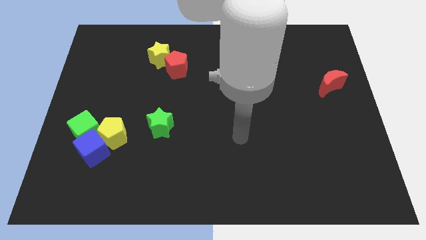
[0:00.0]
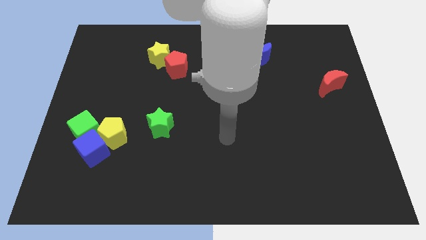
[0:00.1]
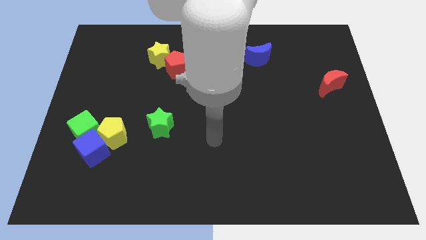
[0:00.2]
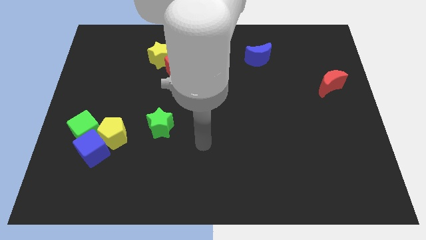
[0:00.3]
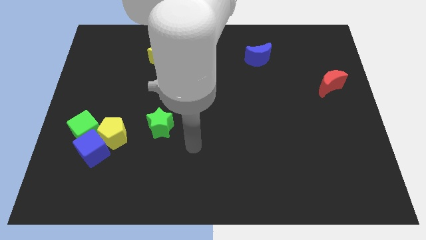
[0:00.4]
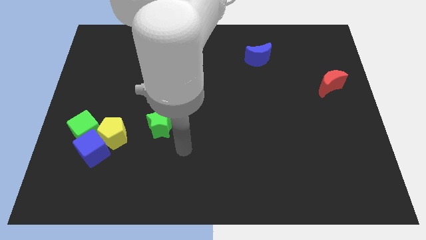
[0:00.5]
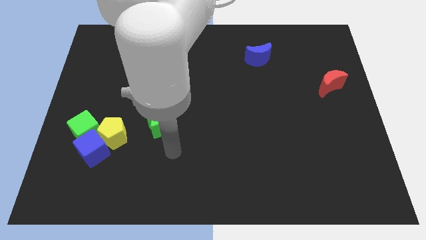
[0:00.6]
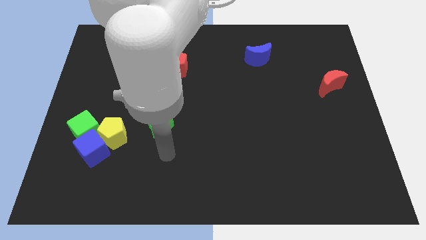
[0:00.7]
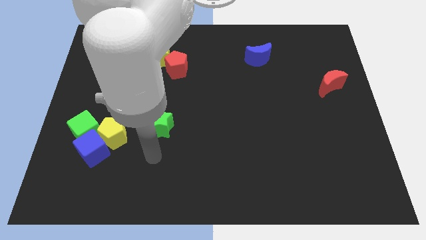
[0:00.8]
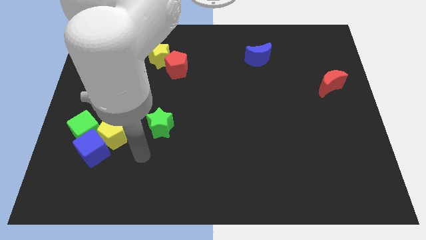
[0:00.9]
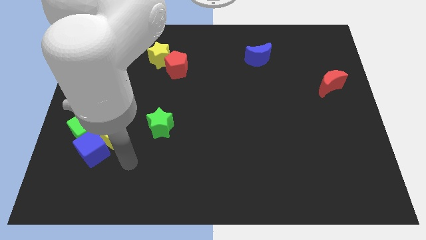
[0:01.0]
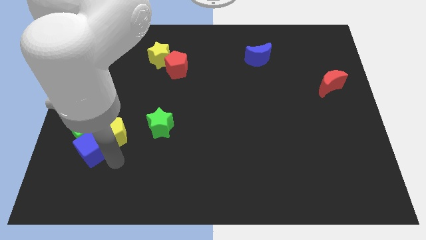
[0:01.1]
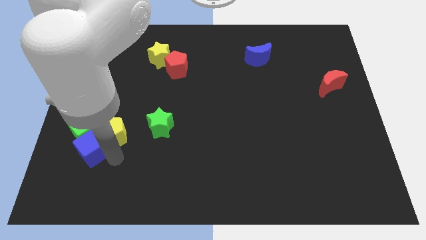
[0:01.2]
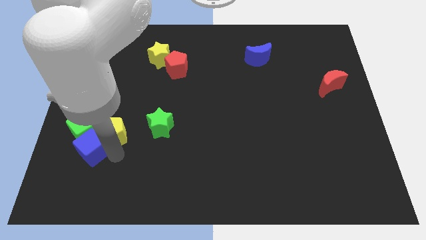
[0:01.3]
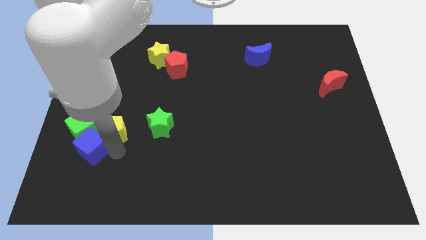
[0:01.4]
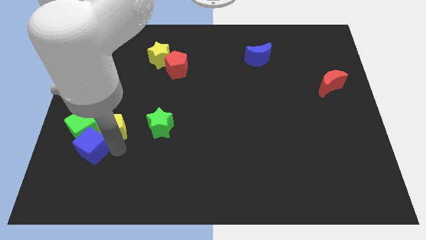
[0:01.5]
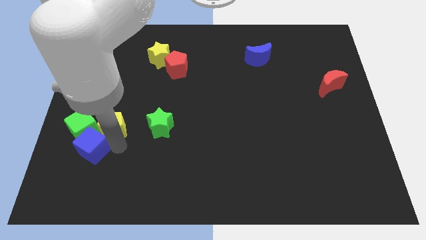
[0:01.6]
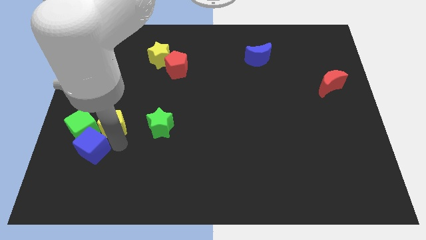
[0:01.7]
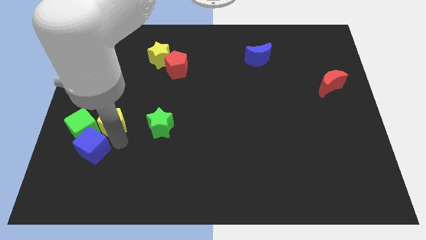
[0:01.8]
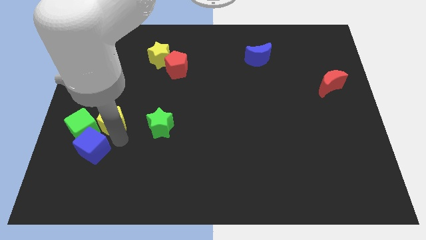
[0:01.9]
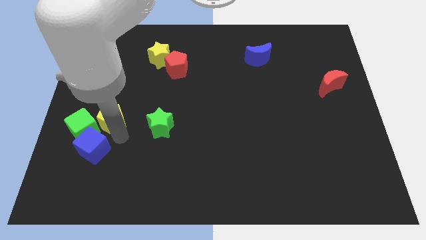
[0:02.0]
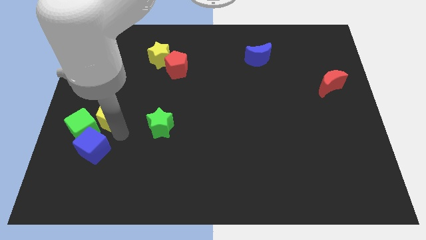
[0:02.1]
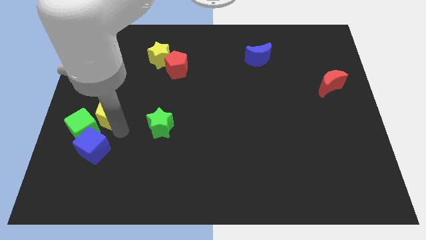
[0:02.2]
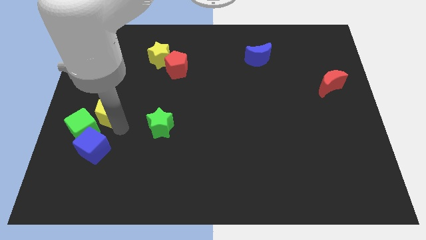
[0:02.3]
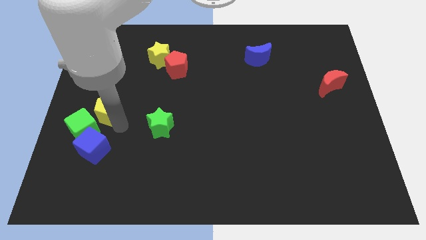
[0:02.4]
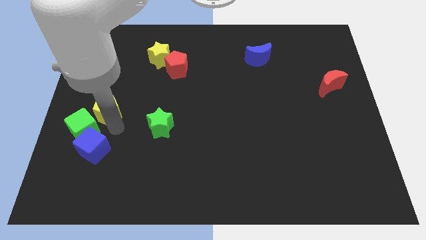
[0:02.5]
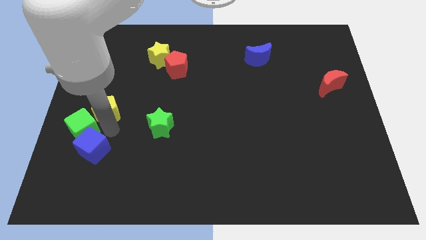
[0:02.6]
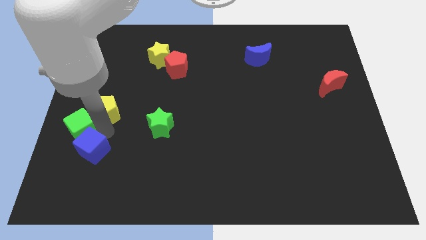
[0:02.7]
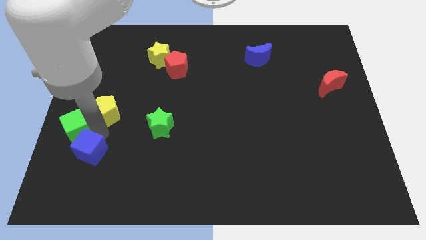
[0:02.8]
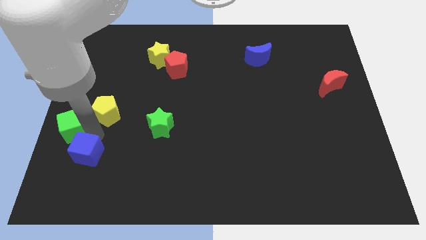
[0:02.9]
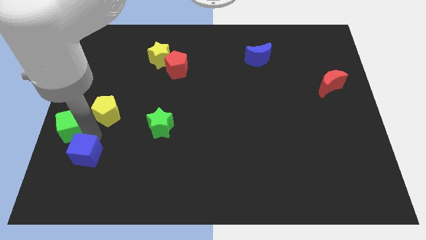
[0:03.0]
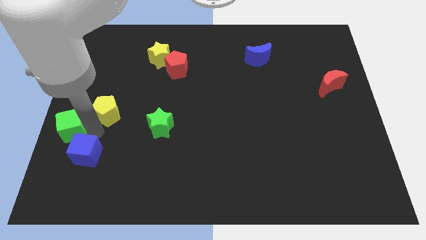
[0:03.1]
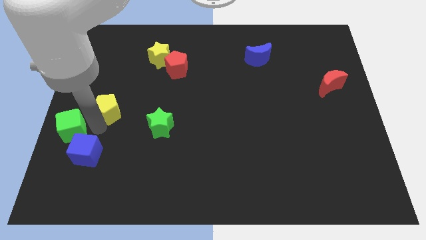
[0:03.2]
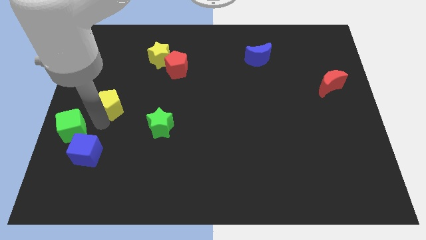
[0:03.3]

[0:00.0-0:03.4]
slide the yellow pentagon up a bit

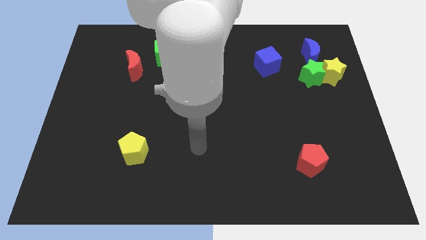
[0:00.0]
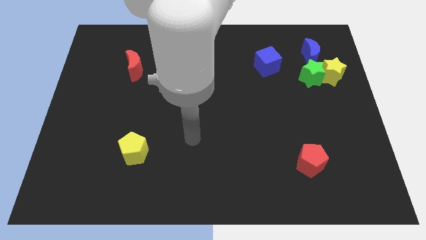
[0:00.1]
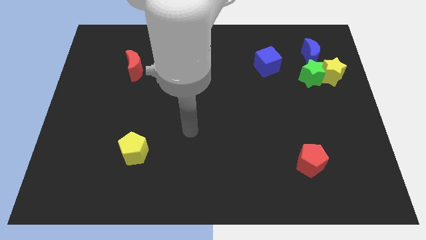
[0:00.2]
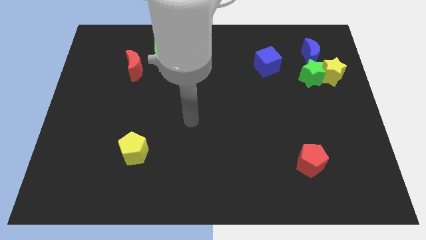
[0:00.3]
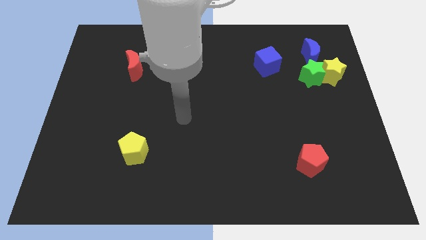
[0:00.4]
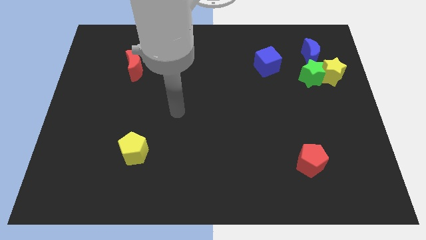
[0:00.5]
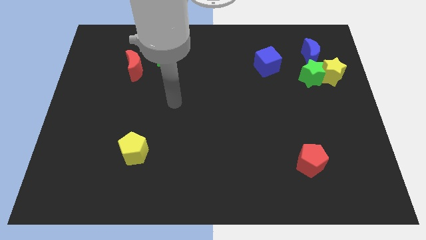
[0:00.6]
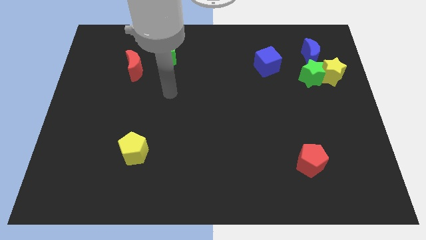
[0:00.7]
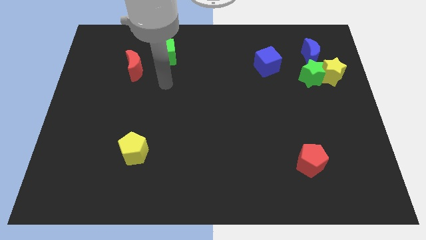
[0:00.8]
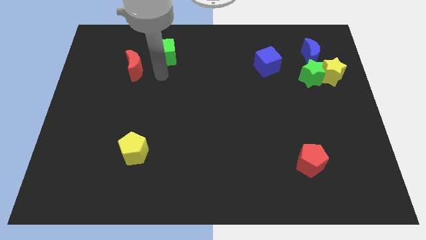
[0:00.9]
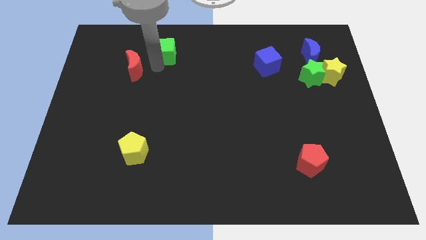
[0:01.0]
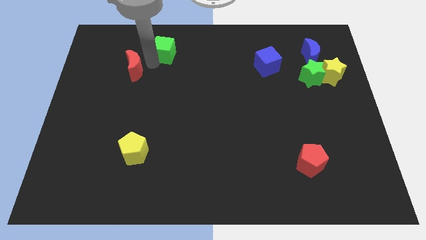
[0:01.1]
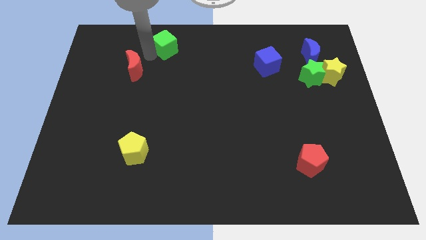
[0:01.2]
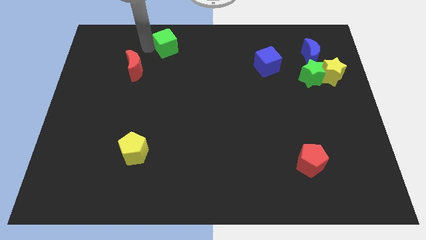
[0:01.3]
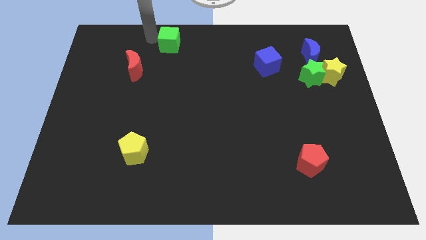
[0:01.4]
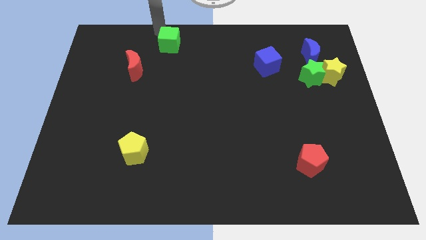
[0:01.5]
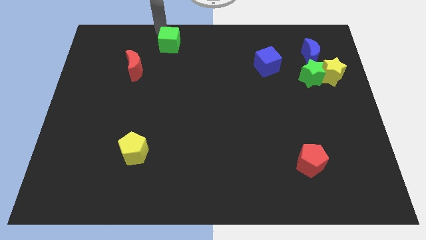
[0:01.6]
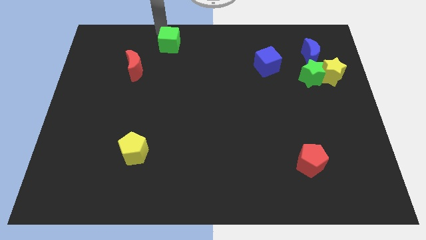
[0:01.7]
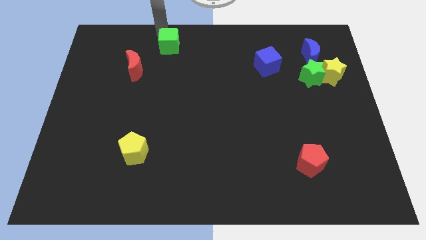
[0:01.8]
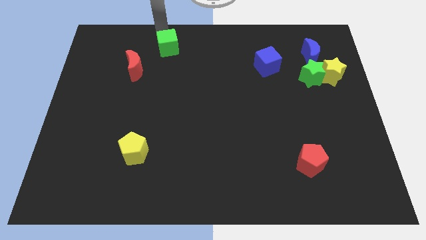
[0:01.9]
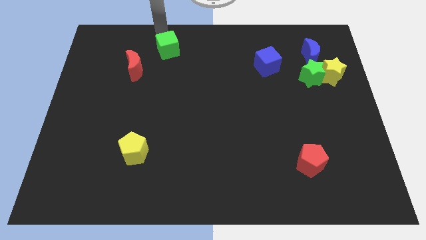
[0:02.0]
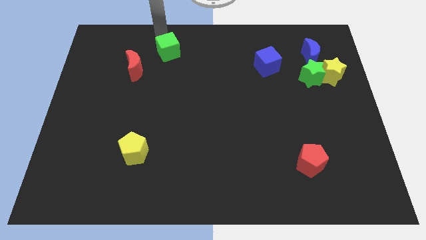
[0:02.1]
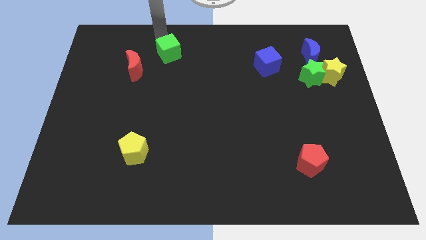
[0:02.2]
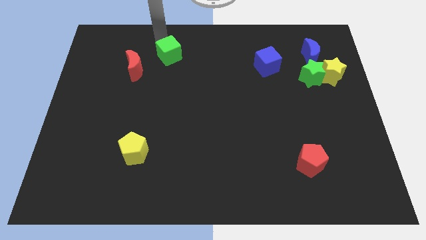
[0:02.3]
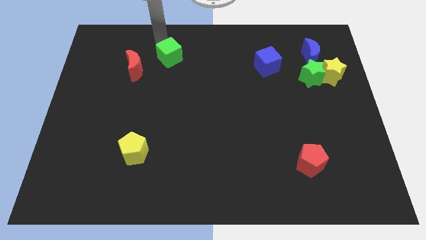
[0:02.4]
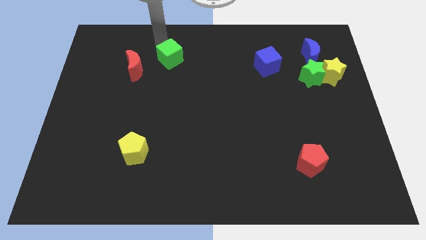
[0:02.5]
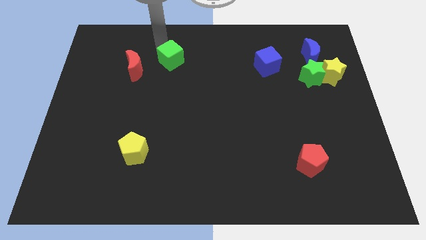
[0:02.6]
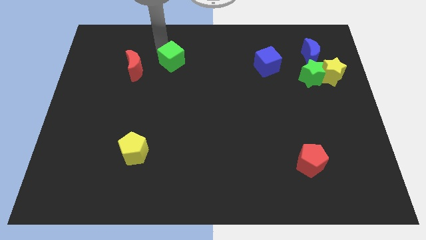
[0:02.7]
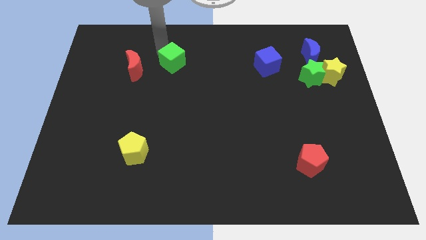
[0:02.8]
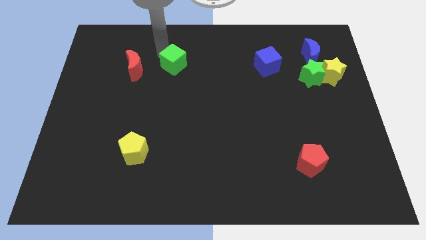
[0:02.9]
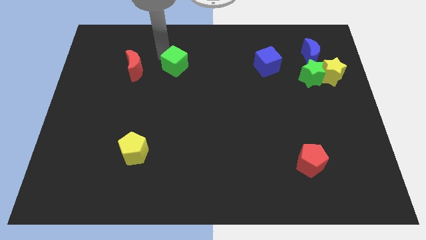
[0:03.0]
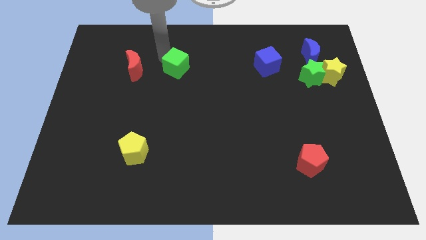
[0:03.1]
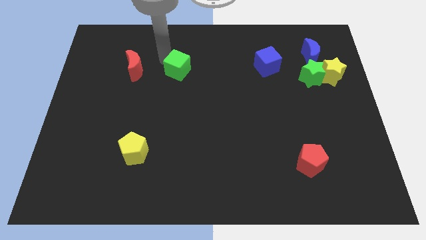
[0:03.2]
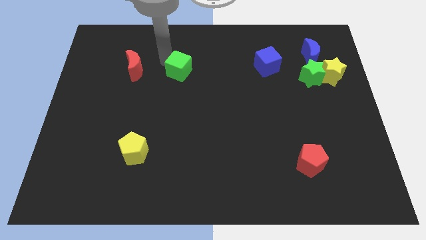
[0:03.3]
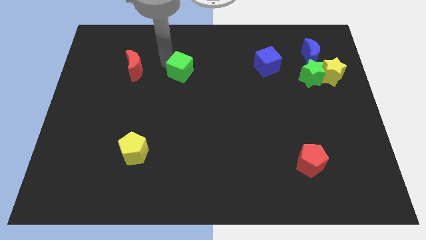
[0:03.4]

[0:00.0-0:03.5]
slightly slide the green cube diagonally down and right

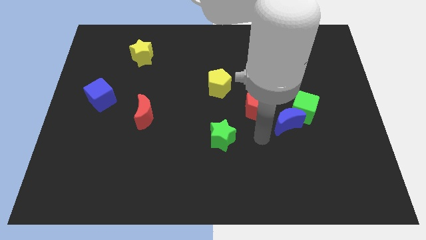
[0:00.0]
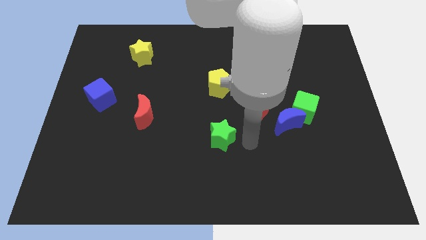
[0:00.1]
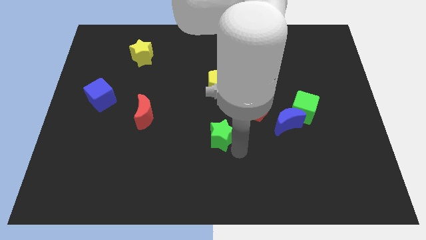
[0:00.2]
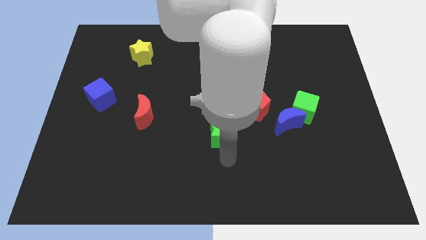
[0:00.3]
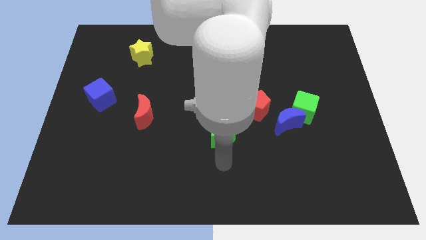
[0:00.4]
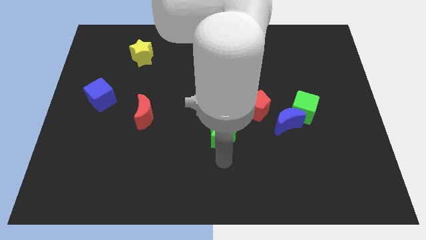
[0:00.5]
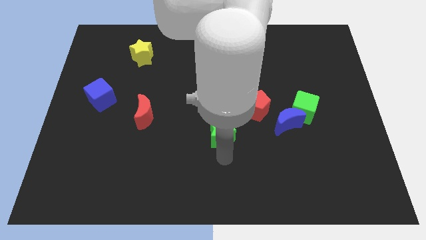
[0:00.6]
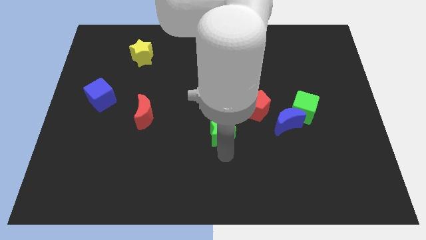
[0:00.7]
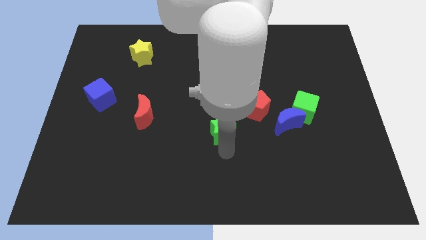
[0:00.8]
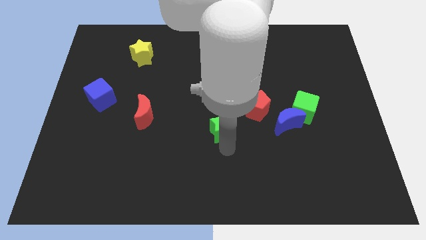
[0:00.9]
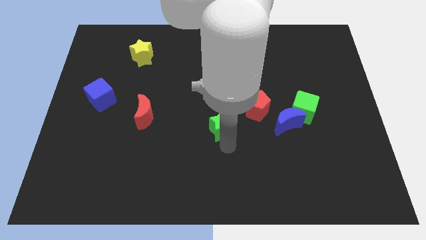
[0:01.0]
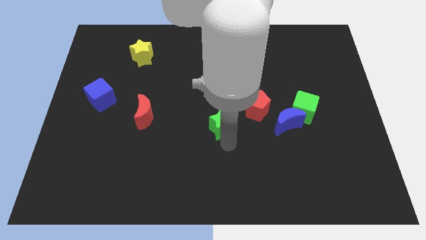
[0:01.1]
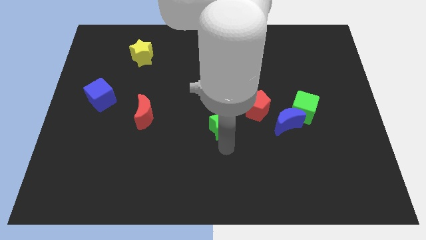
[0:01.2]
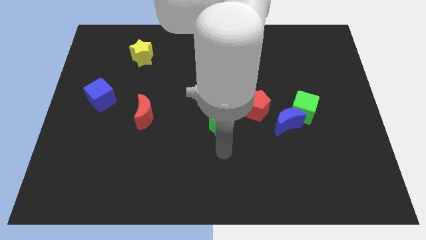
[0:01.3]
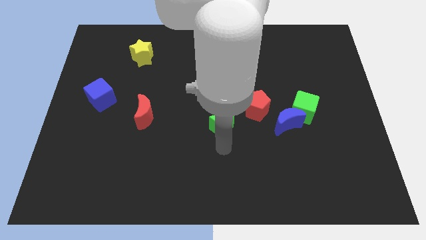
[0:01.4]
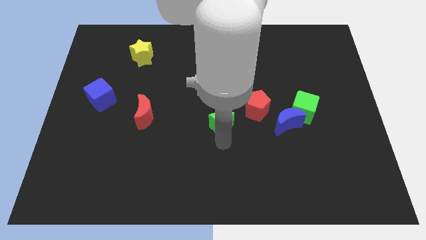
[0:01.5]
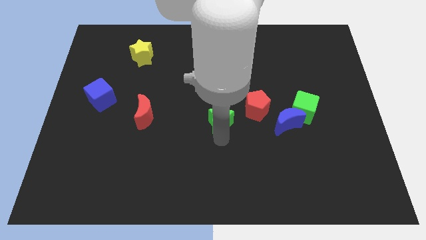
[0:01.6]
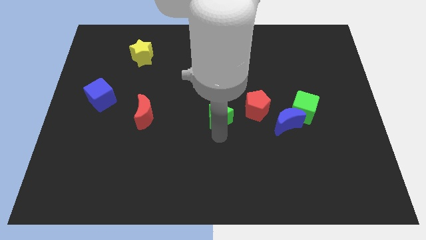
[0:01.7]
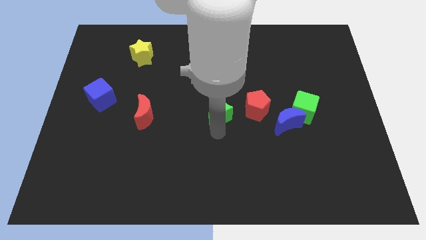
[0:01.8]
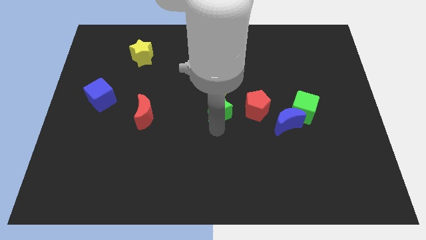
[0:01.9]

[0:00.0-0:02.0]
move the green star slightly upwards
